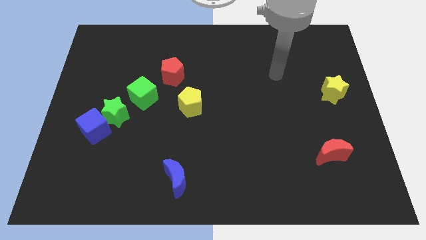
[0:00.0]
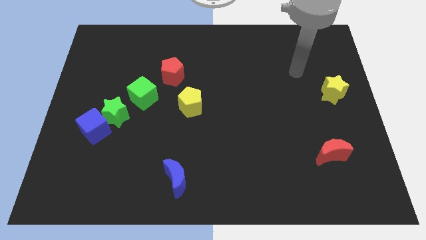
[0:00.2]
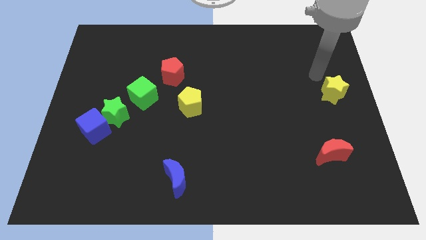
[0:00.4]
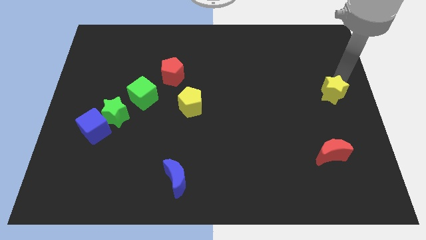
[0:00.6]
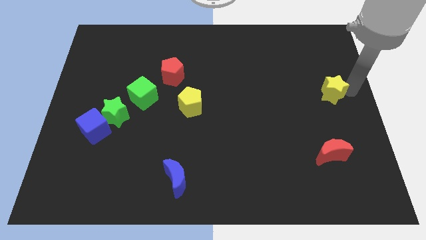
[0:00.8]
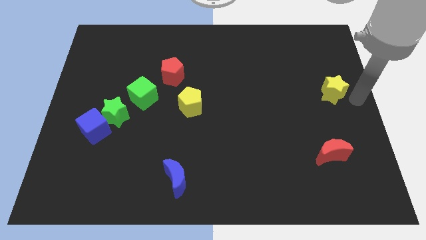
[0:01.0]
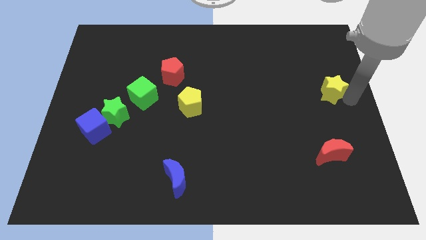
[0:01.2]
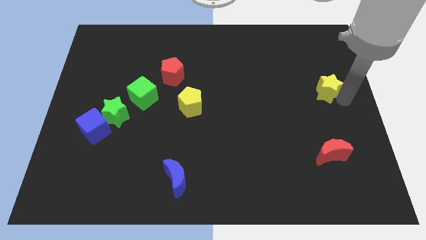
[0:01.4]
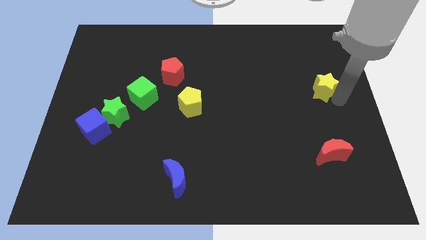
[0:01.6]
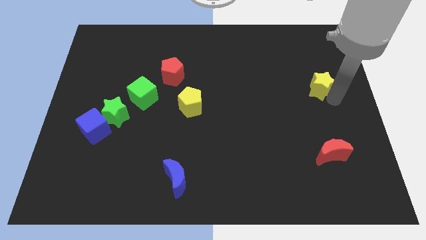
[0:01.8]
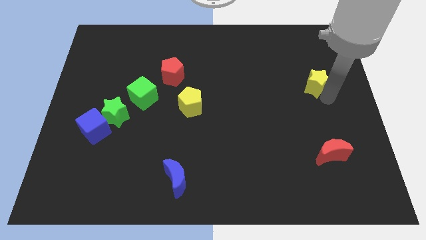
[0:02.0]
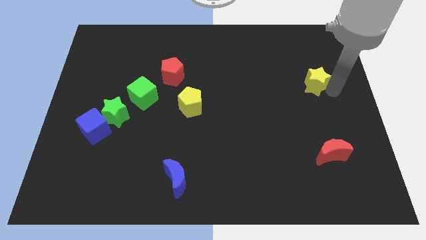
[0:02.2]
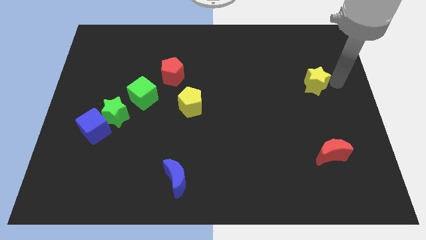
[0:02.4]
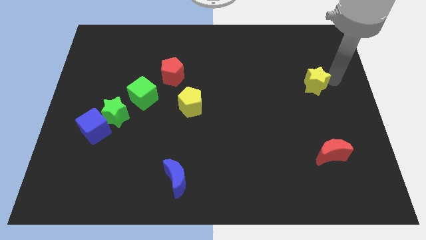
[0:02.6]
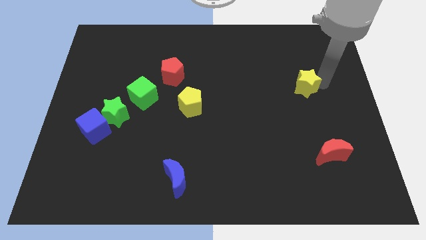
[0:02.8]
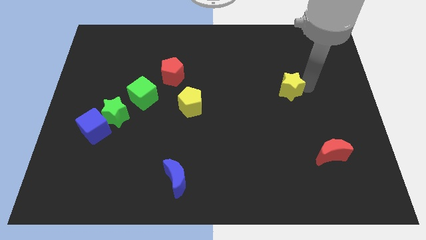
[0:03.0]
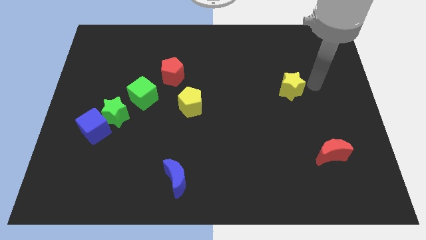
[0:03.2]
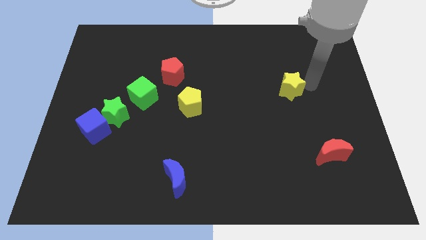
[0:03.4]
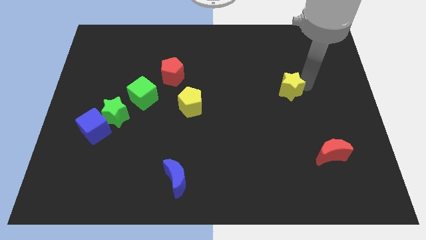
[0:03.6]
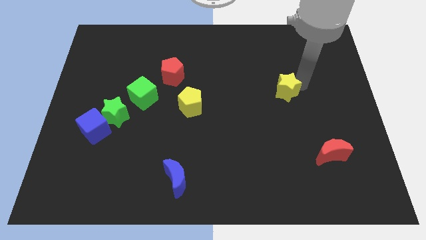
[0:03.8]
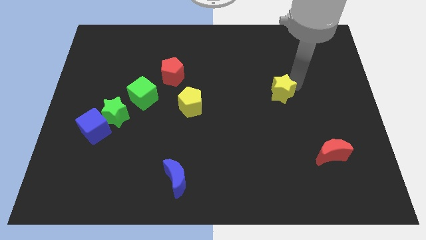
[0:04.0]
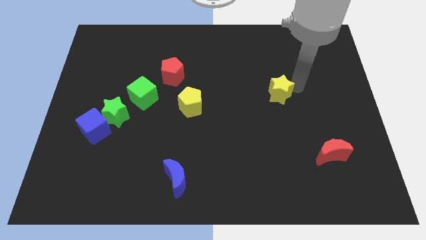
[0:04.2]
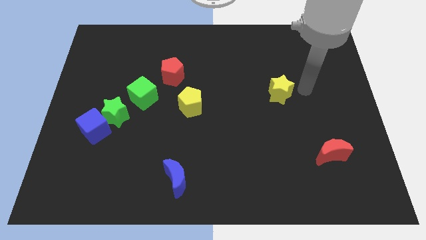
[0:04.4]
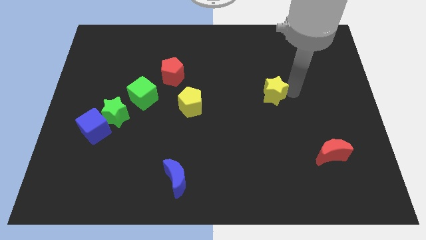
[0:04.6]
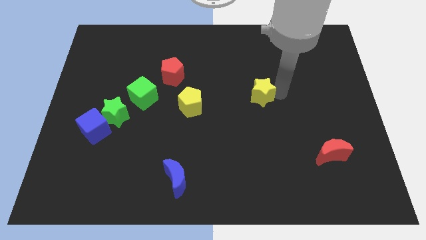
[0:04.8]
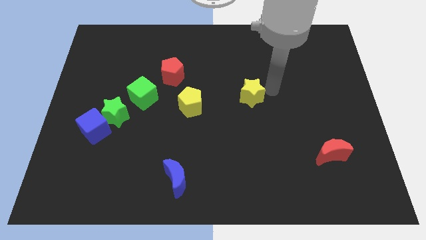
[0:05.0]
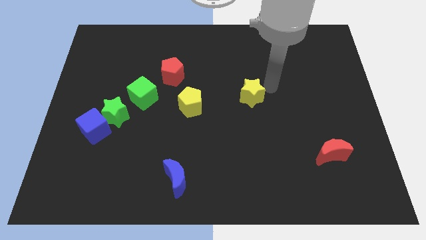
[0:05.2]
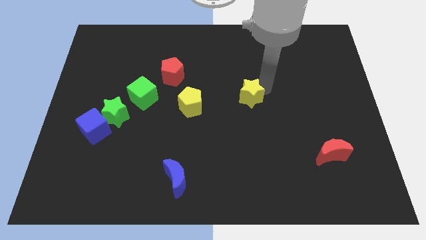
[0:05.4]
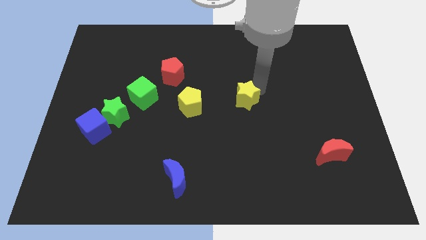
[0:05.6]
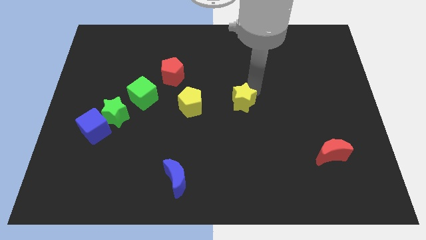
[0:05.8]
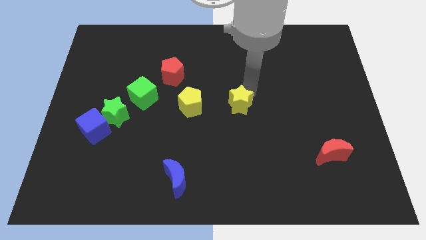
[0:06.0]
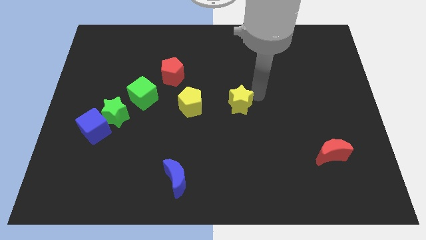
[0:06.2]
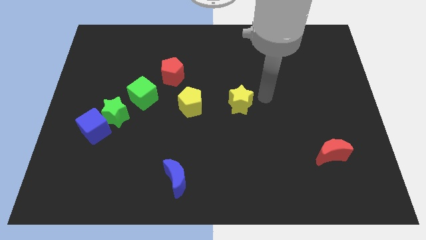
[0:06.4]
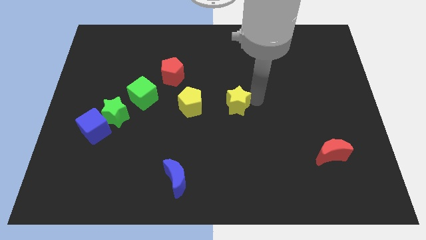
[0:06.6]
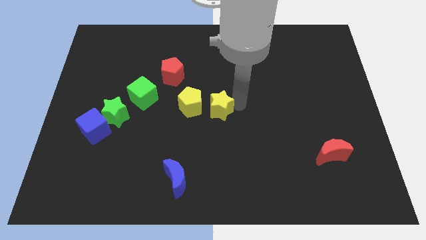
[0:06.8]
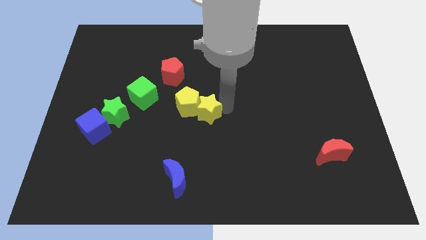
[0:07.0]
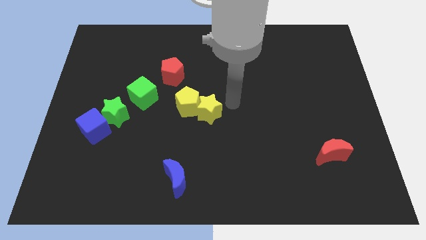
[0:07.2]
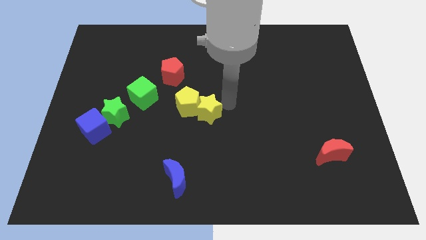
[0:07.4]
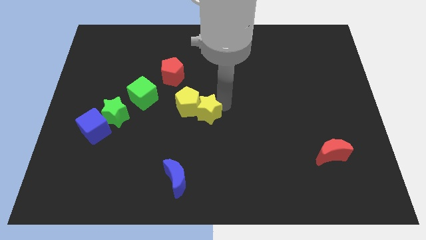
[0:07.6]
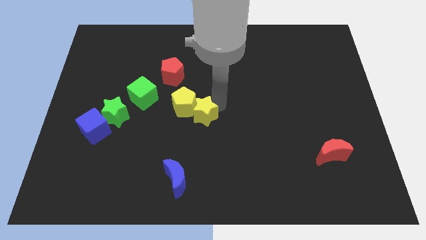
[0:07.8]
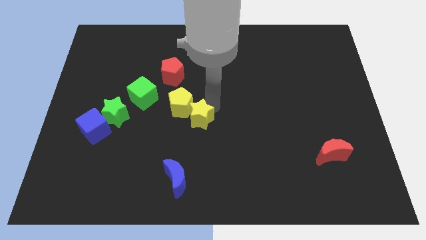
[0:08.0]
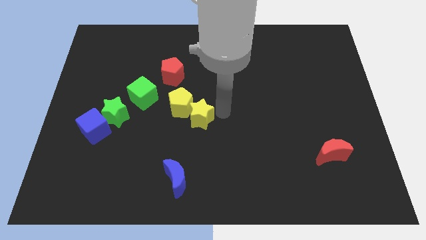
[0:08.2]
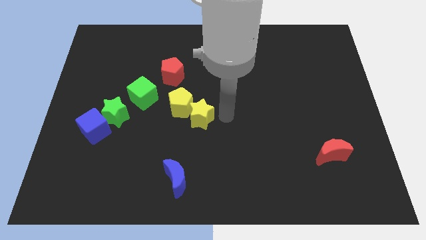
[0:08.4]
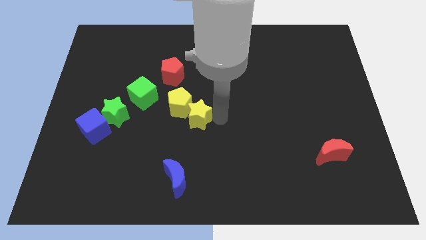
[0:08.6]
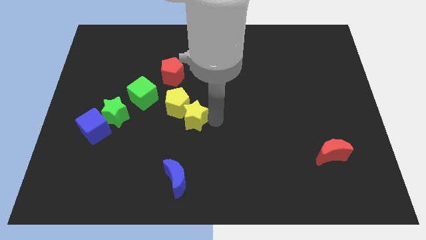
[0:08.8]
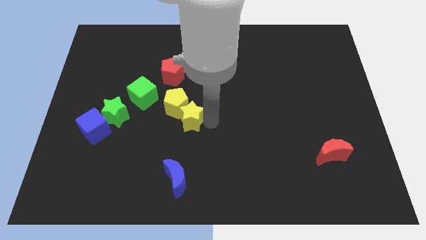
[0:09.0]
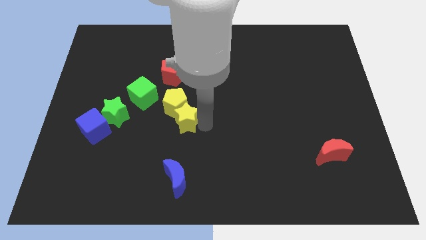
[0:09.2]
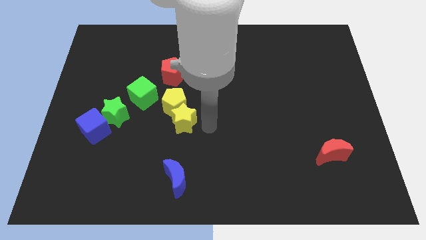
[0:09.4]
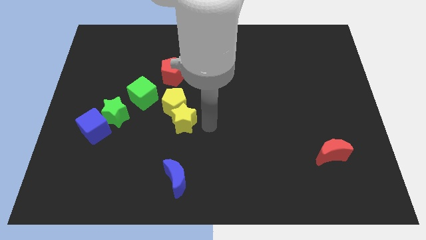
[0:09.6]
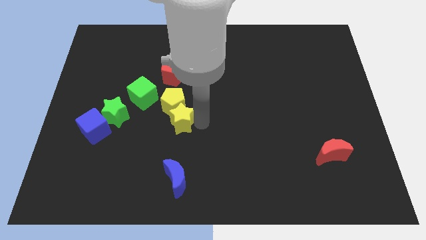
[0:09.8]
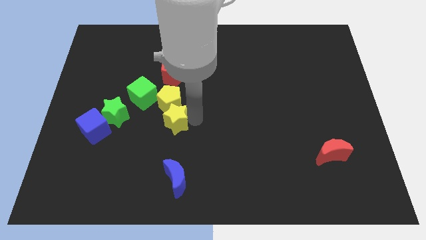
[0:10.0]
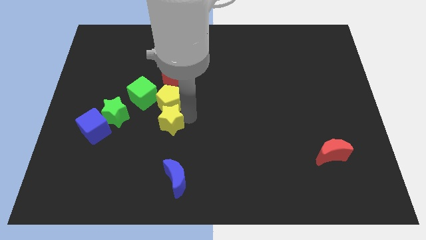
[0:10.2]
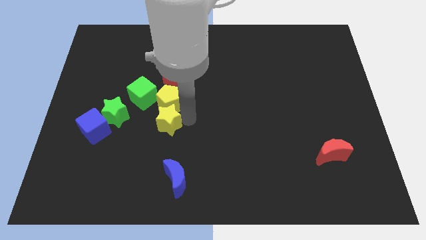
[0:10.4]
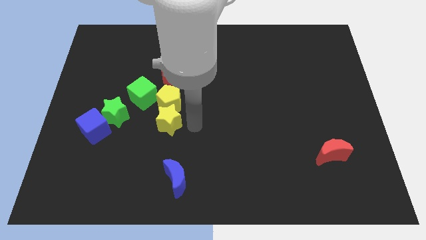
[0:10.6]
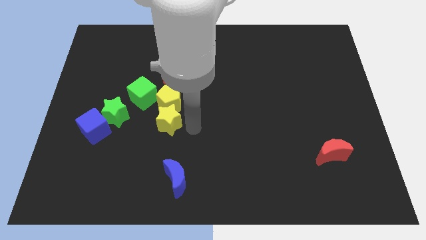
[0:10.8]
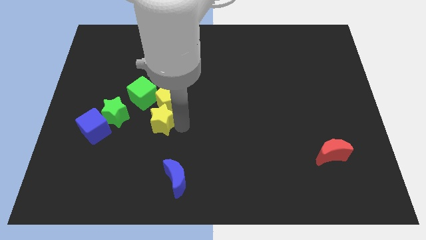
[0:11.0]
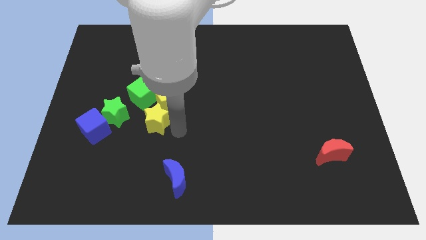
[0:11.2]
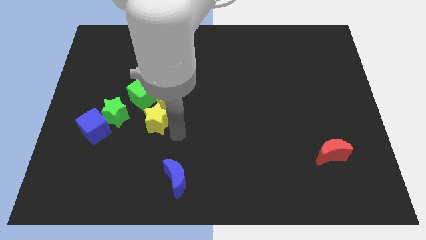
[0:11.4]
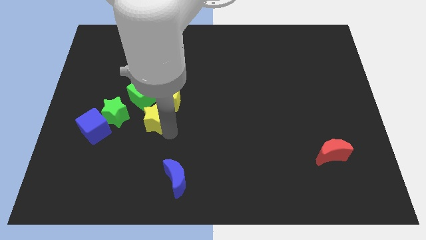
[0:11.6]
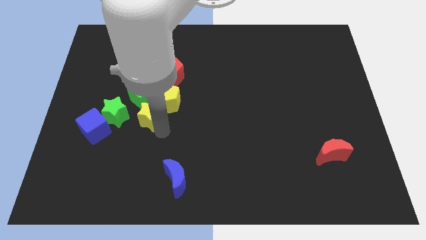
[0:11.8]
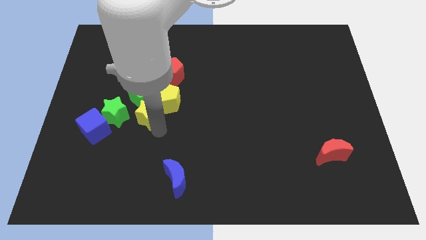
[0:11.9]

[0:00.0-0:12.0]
put the yellow star to the left of the yellow pentagon
